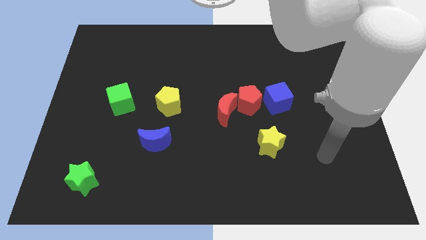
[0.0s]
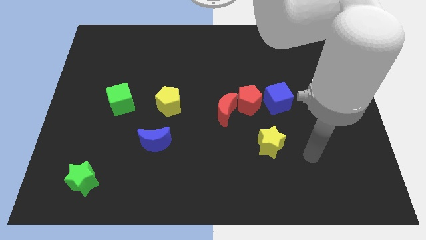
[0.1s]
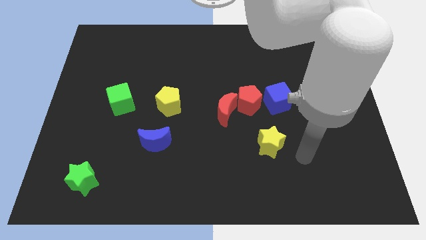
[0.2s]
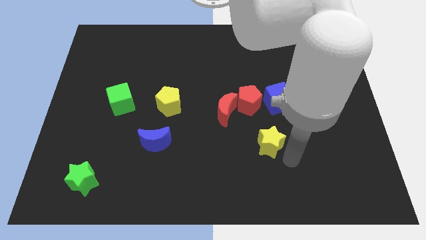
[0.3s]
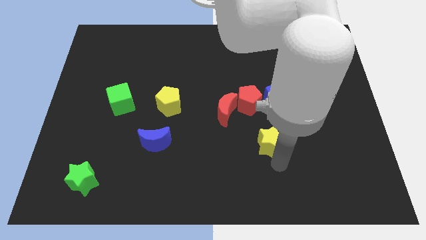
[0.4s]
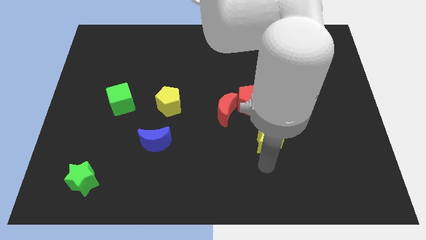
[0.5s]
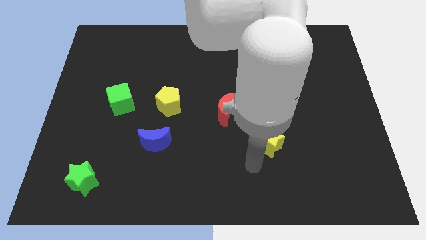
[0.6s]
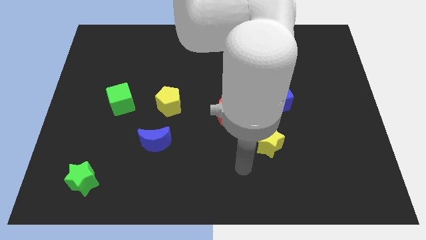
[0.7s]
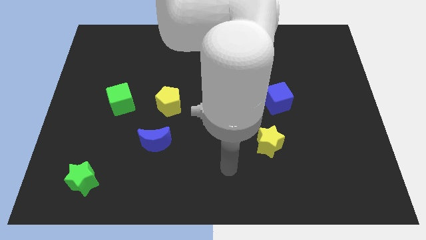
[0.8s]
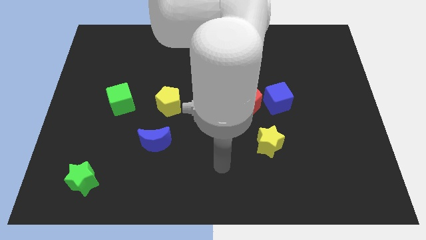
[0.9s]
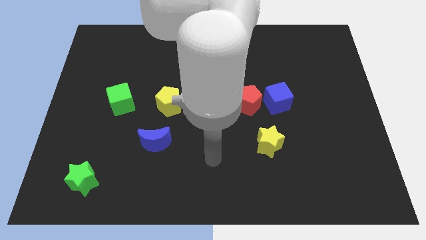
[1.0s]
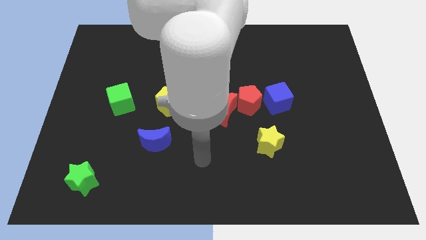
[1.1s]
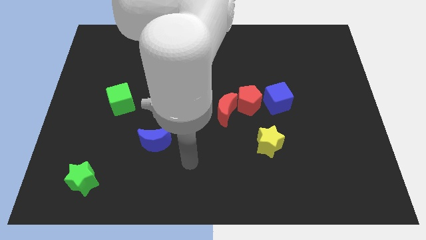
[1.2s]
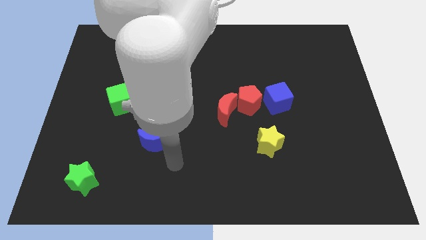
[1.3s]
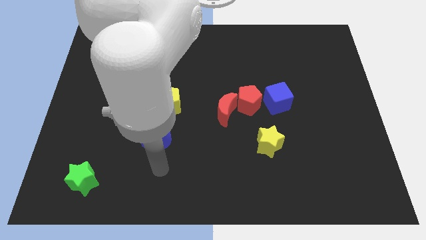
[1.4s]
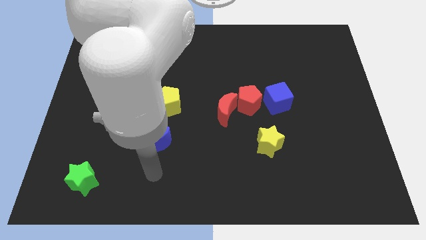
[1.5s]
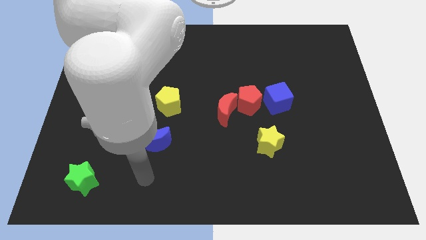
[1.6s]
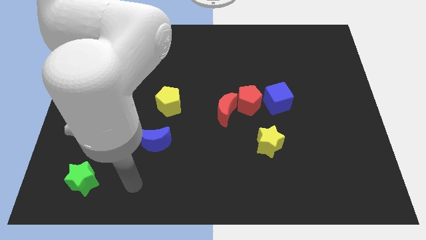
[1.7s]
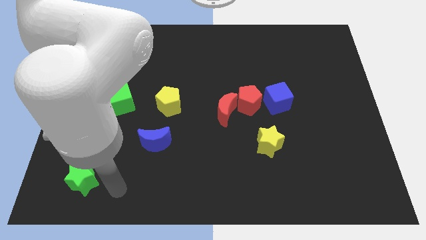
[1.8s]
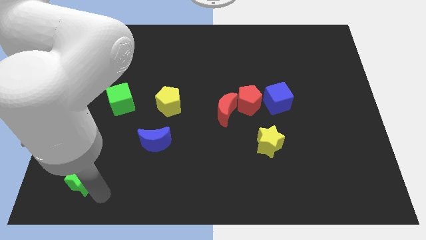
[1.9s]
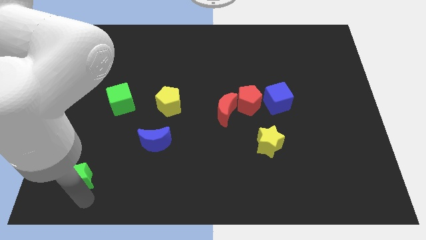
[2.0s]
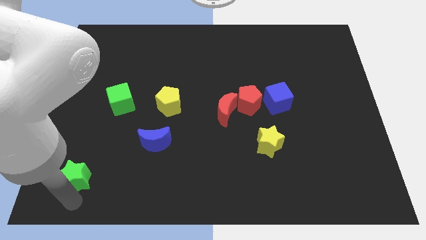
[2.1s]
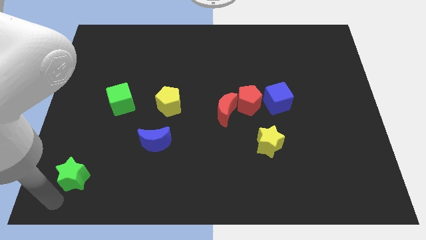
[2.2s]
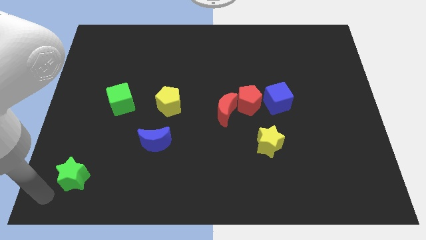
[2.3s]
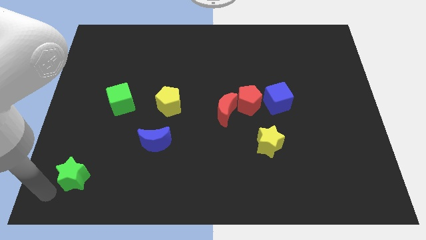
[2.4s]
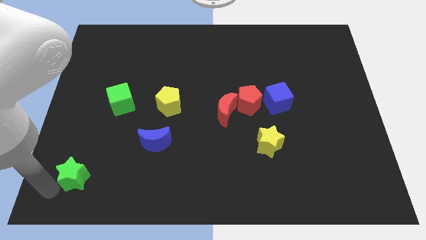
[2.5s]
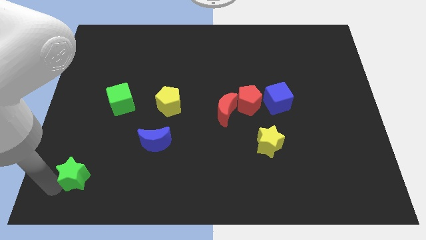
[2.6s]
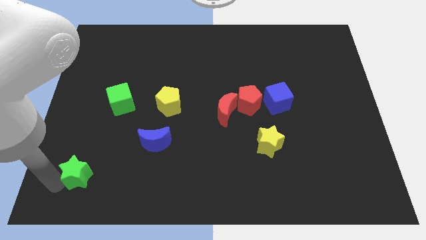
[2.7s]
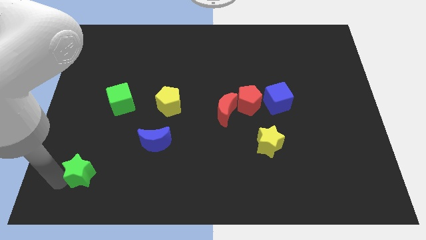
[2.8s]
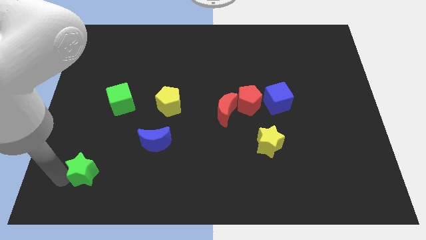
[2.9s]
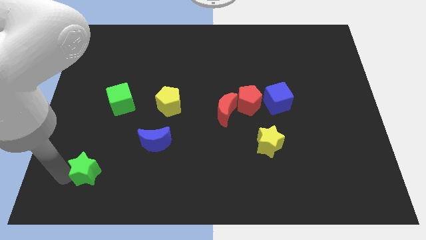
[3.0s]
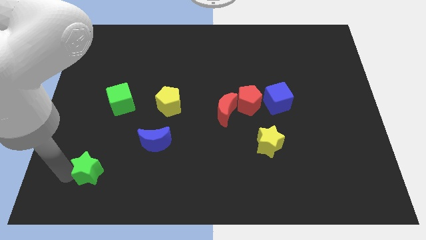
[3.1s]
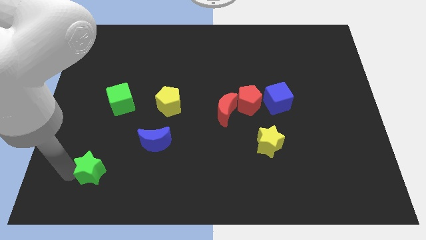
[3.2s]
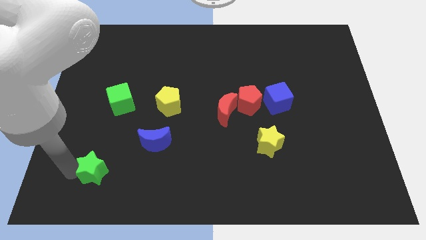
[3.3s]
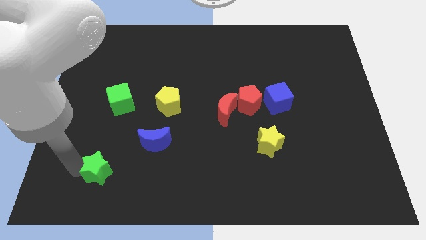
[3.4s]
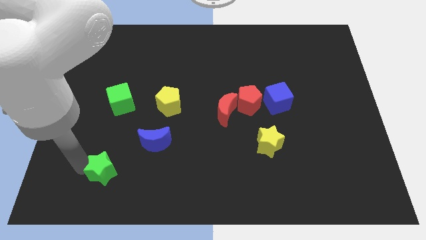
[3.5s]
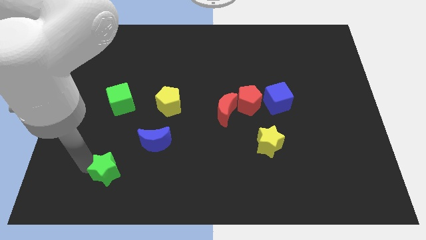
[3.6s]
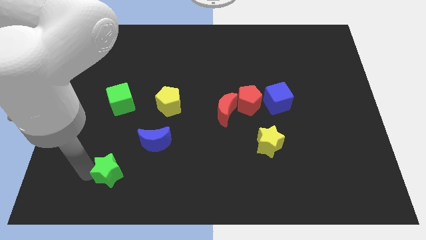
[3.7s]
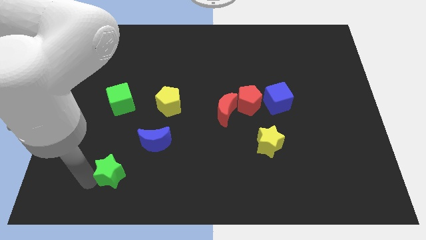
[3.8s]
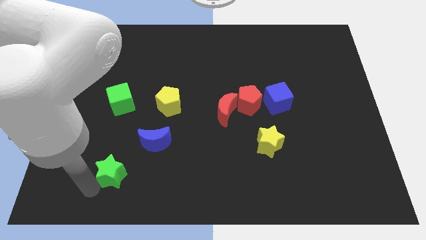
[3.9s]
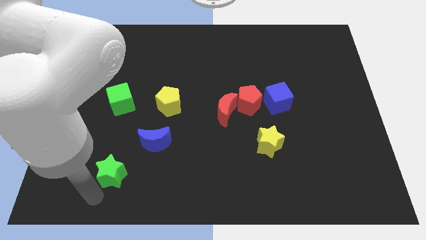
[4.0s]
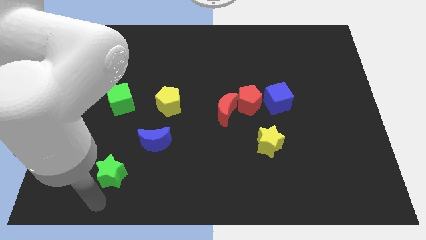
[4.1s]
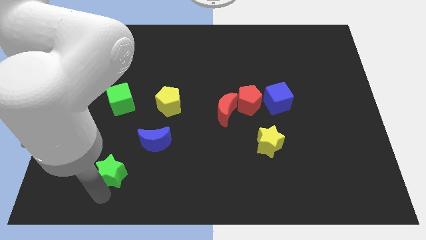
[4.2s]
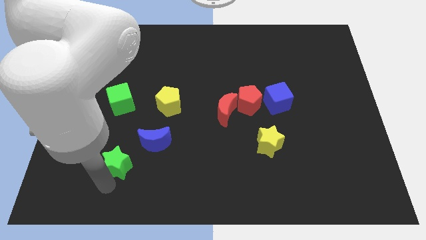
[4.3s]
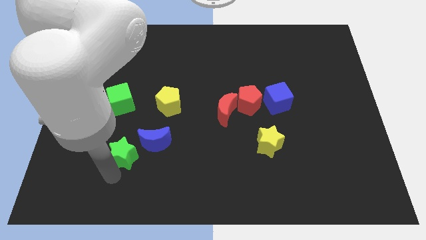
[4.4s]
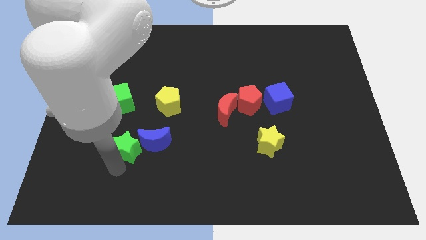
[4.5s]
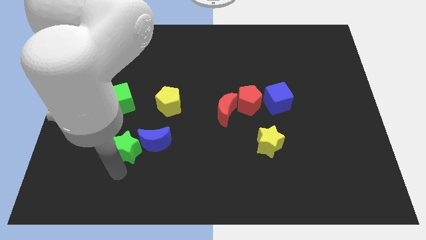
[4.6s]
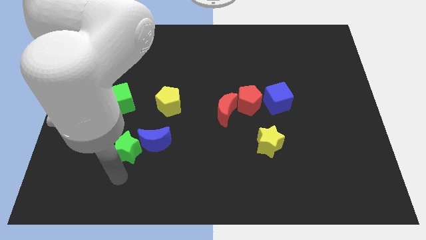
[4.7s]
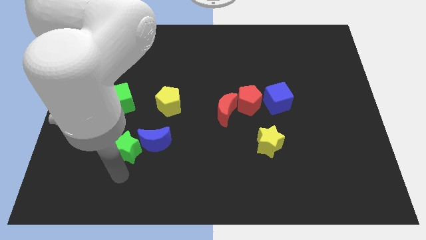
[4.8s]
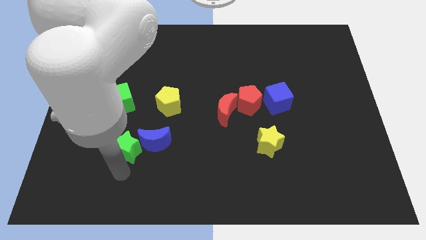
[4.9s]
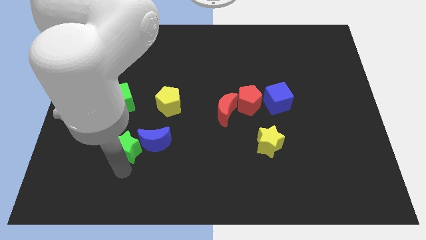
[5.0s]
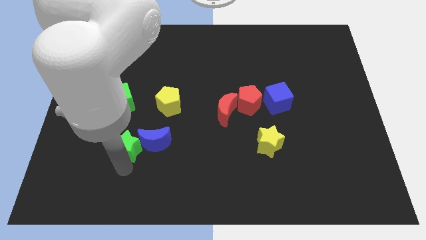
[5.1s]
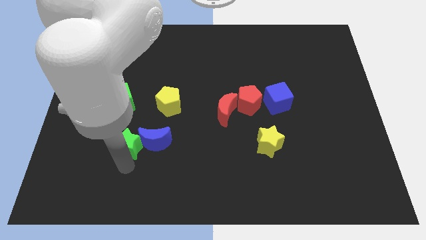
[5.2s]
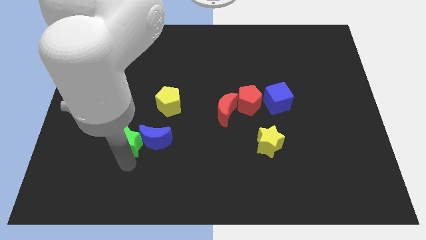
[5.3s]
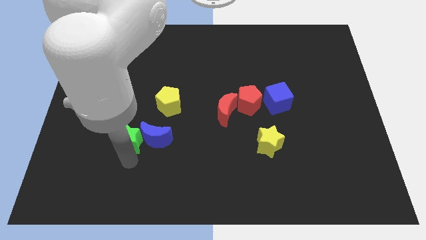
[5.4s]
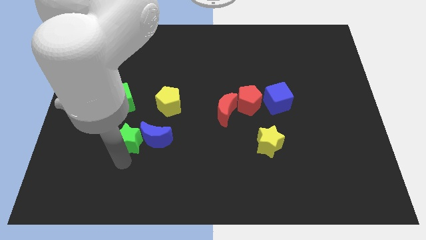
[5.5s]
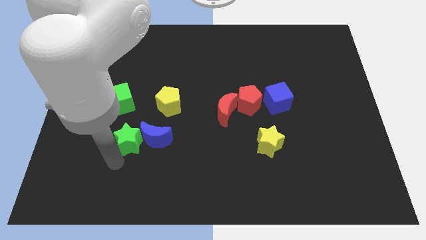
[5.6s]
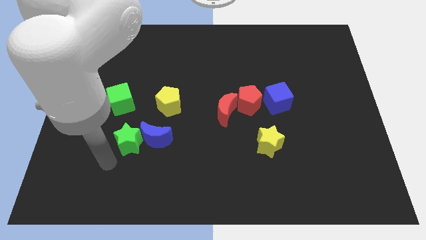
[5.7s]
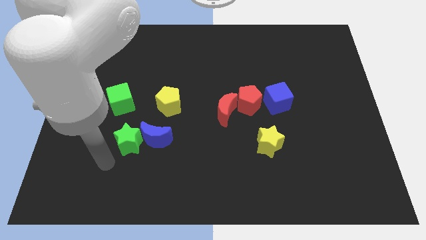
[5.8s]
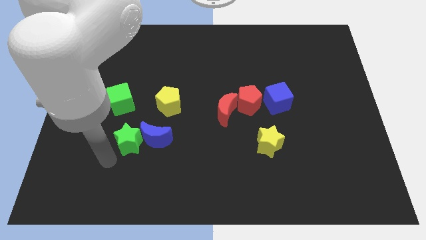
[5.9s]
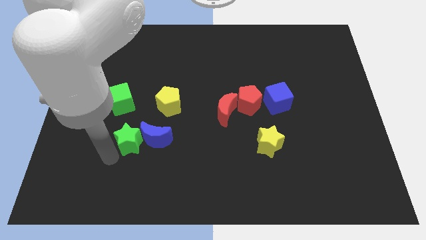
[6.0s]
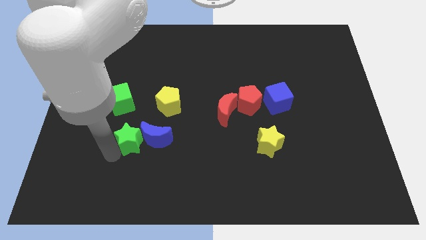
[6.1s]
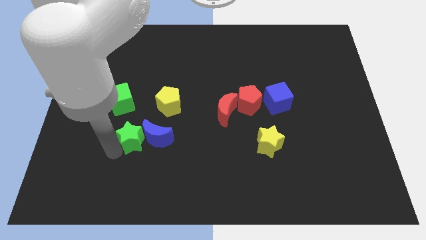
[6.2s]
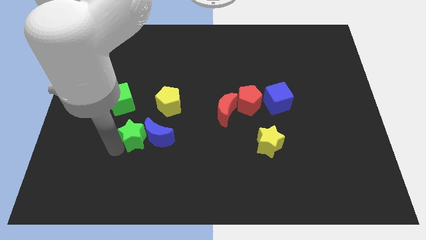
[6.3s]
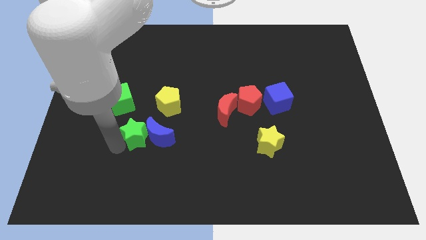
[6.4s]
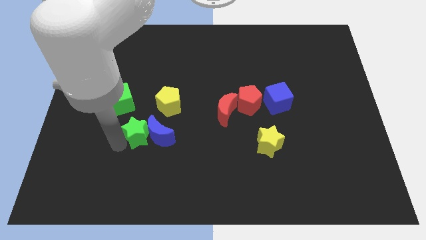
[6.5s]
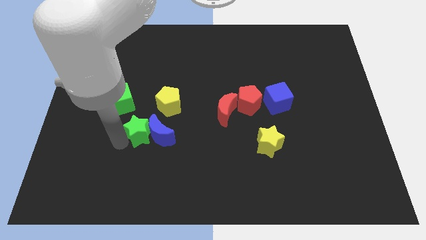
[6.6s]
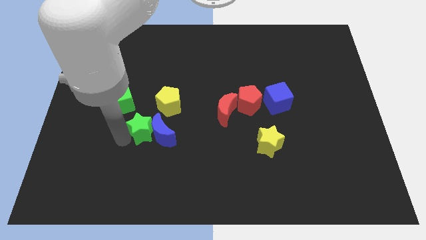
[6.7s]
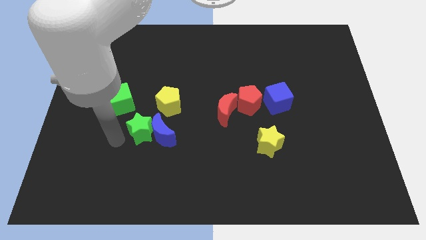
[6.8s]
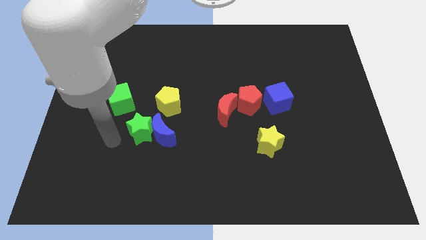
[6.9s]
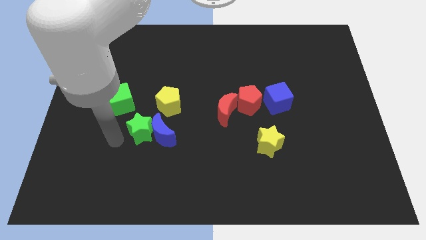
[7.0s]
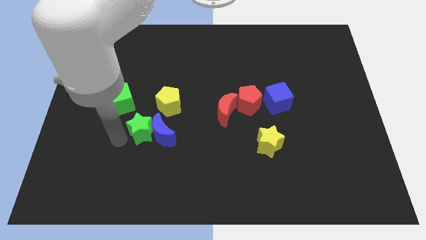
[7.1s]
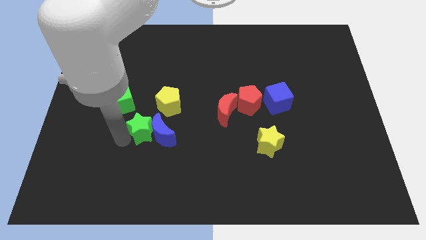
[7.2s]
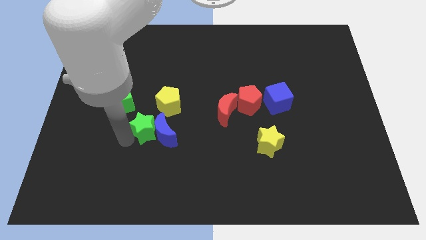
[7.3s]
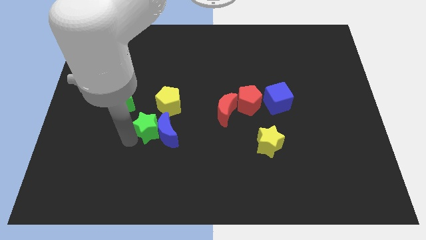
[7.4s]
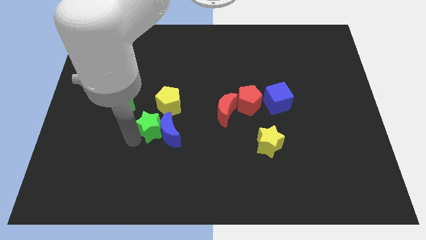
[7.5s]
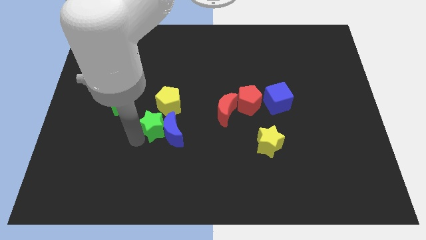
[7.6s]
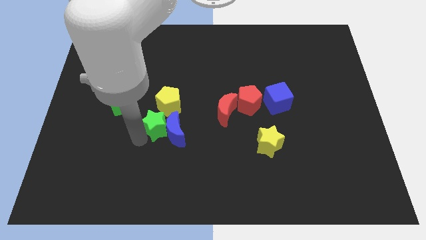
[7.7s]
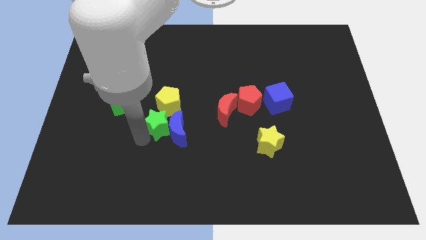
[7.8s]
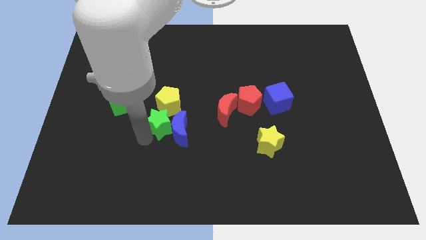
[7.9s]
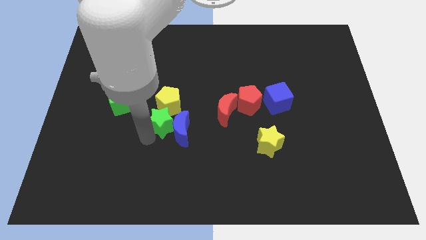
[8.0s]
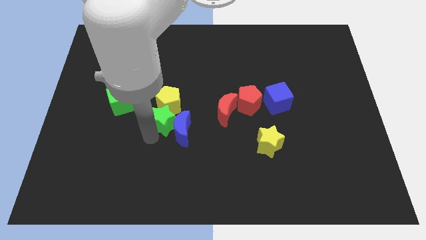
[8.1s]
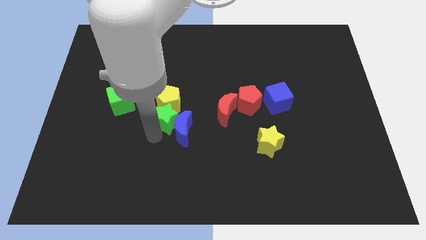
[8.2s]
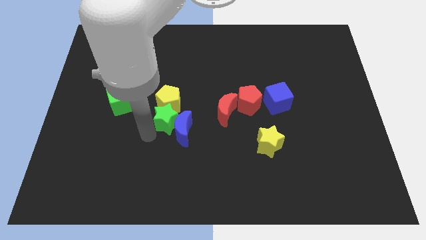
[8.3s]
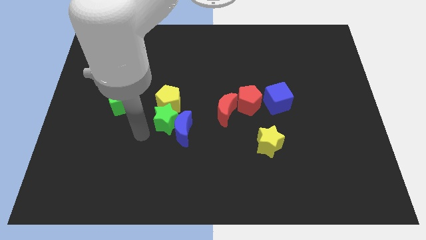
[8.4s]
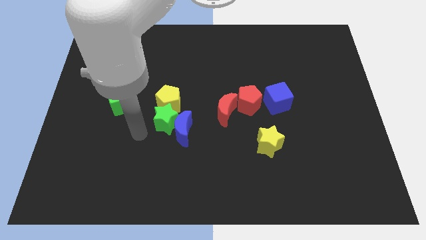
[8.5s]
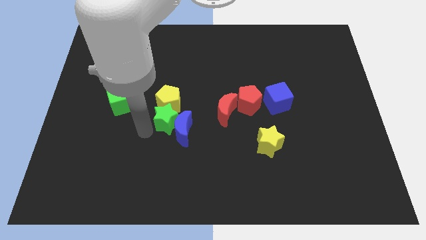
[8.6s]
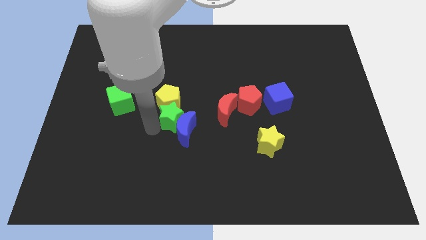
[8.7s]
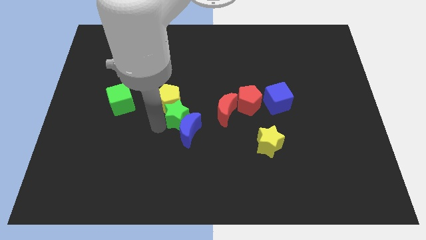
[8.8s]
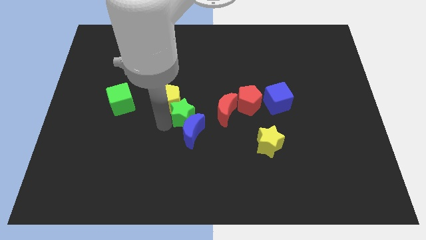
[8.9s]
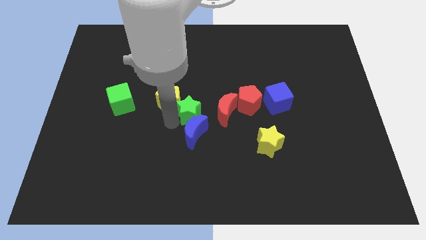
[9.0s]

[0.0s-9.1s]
put the green star to the left of the red pentagon
